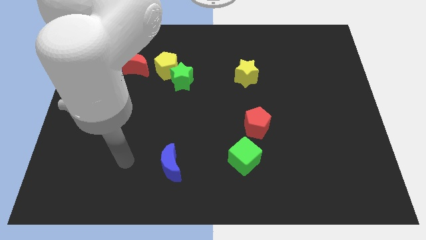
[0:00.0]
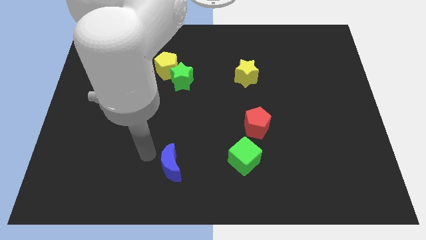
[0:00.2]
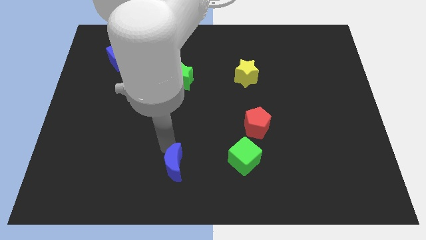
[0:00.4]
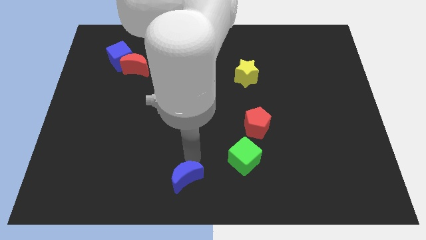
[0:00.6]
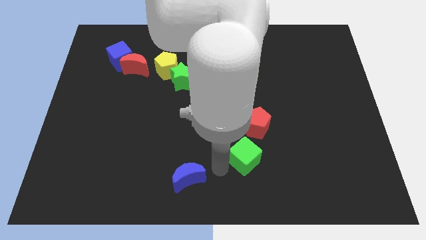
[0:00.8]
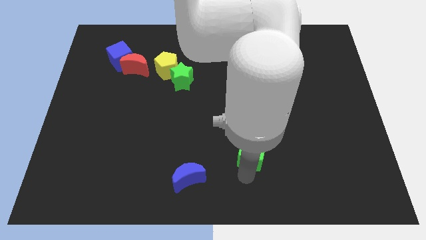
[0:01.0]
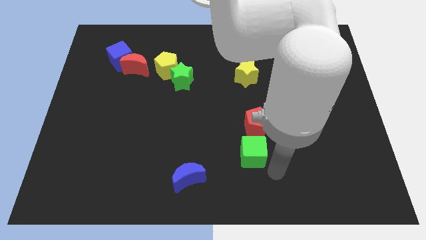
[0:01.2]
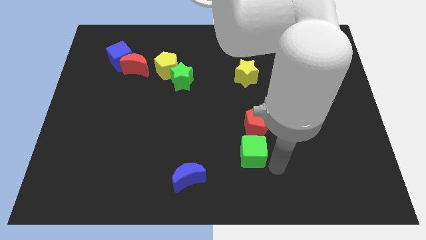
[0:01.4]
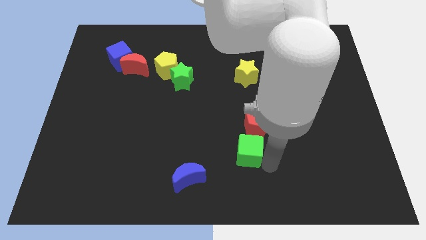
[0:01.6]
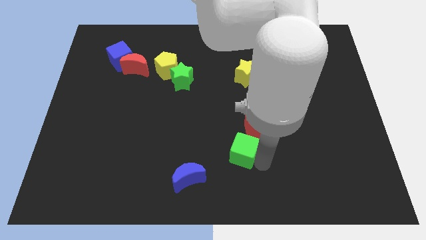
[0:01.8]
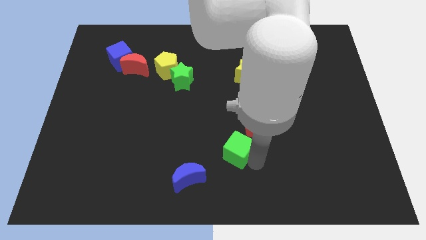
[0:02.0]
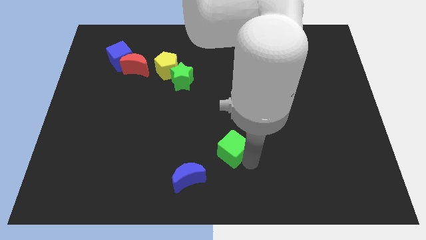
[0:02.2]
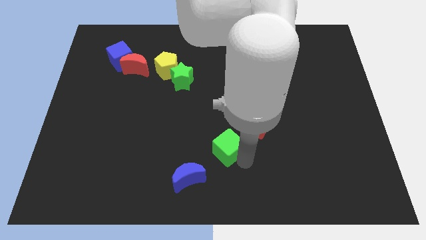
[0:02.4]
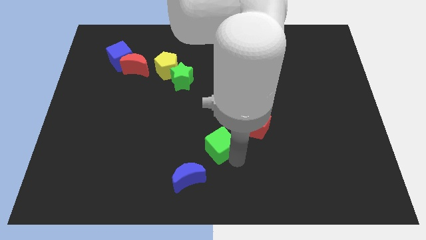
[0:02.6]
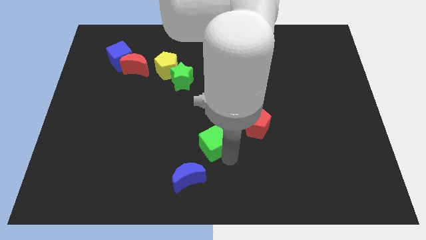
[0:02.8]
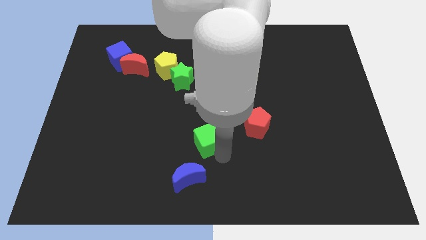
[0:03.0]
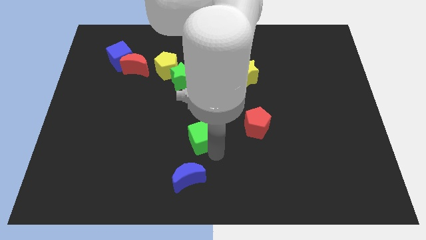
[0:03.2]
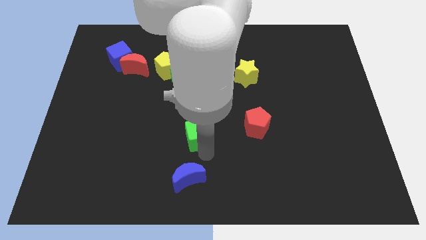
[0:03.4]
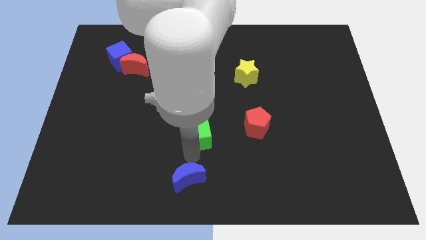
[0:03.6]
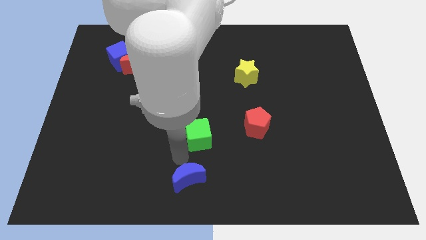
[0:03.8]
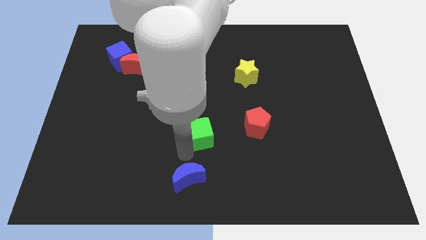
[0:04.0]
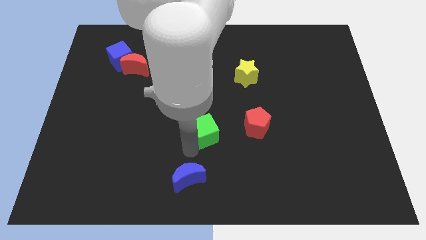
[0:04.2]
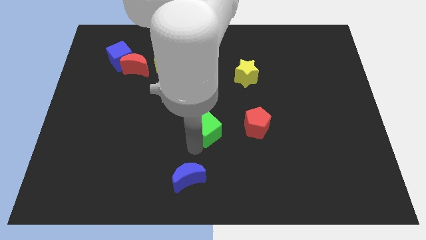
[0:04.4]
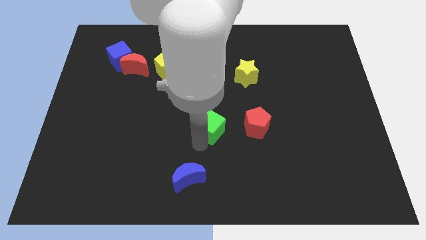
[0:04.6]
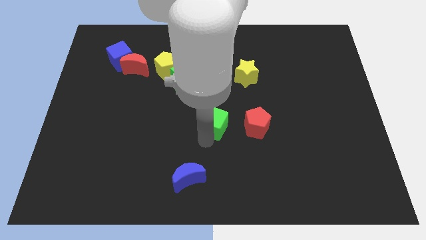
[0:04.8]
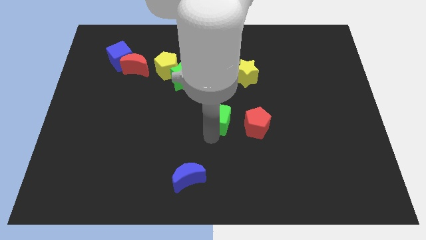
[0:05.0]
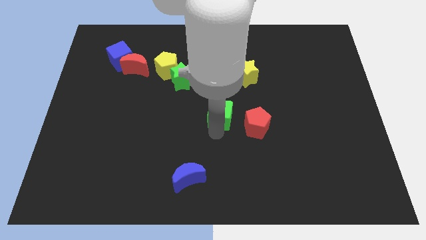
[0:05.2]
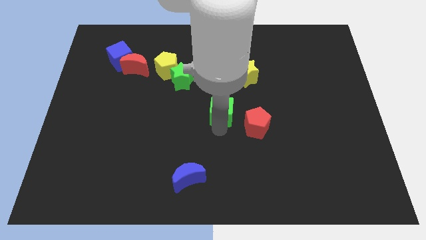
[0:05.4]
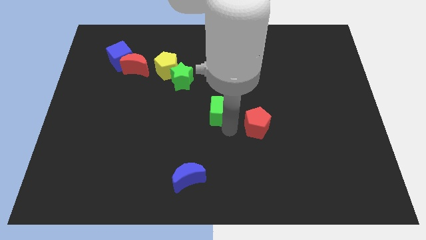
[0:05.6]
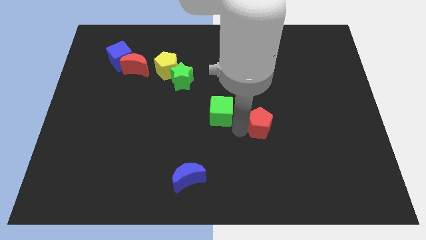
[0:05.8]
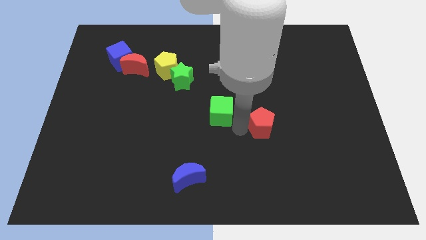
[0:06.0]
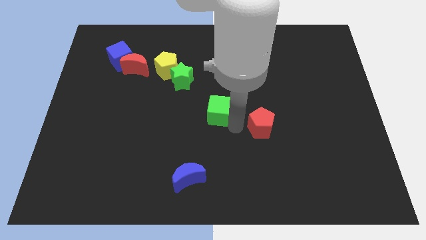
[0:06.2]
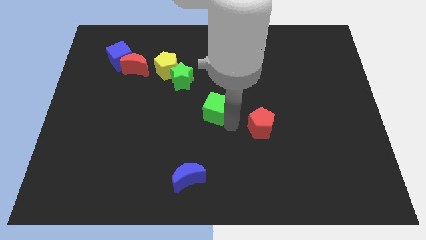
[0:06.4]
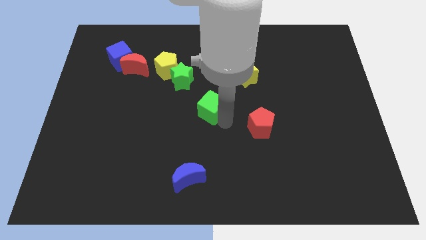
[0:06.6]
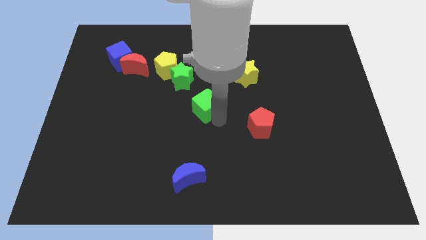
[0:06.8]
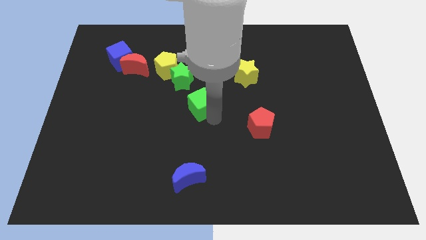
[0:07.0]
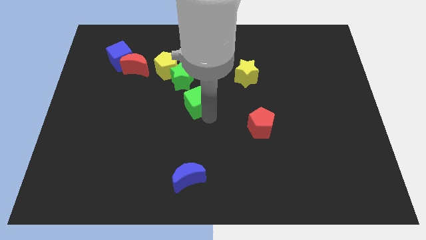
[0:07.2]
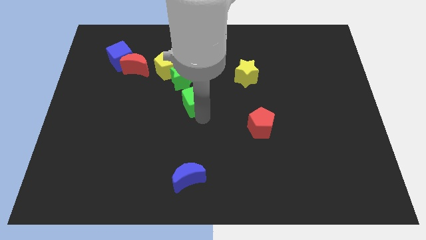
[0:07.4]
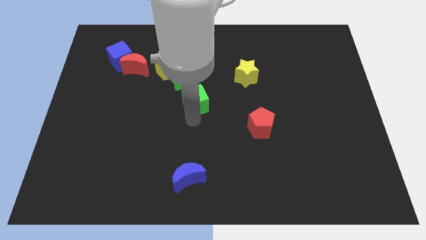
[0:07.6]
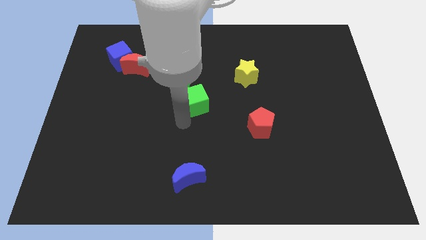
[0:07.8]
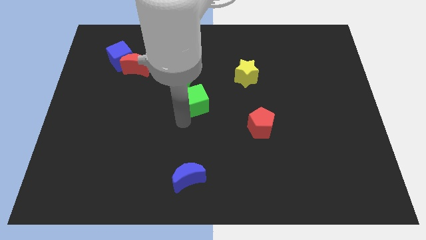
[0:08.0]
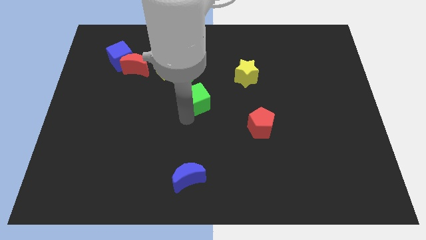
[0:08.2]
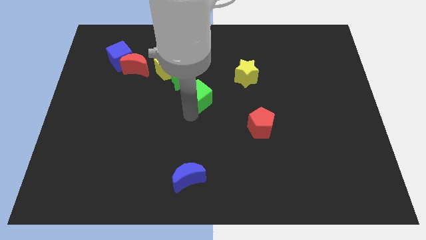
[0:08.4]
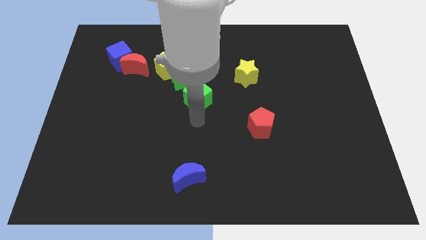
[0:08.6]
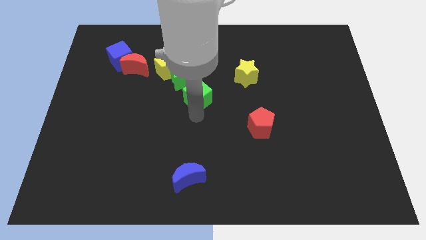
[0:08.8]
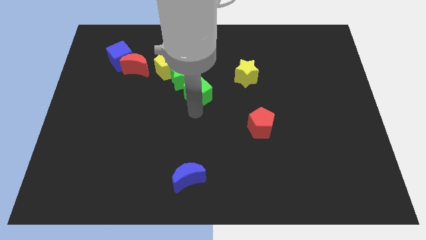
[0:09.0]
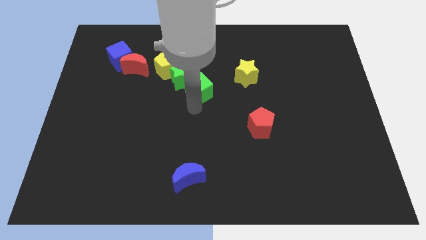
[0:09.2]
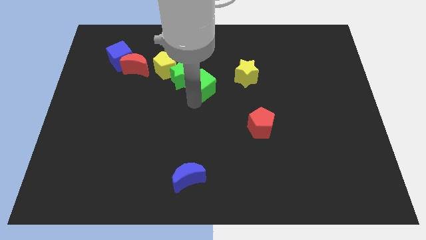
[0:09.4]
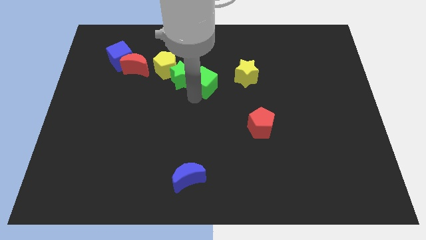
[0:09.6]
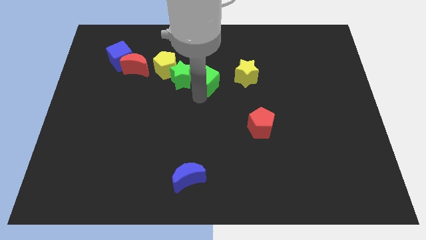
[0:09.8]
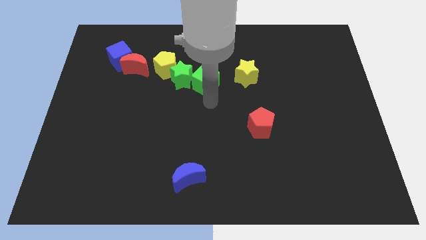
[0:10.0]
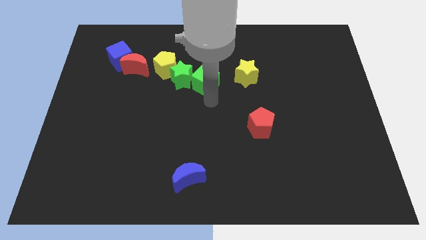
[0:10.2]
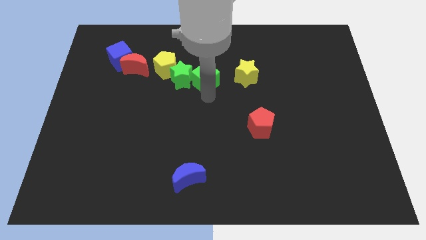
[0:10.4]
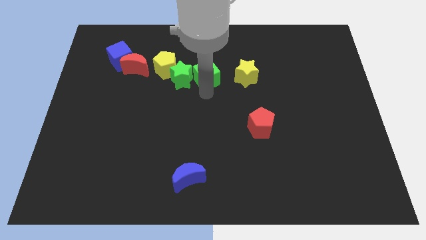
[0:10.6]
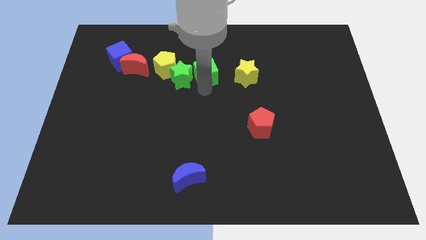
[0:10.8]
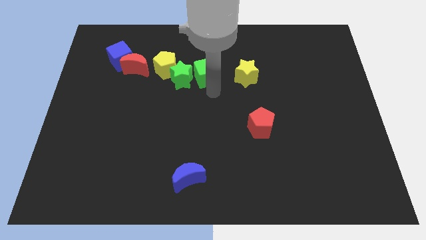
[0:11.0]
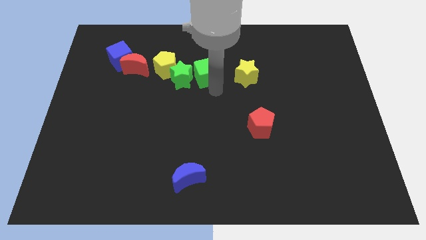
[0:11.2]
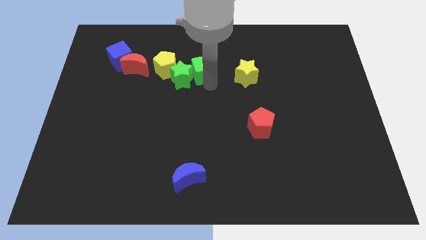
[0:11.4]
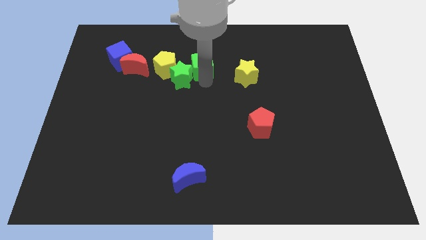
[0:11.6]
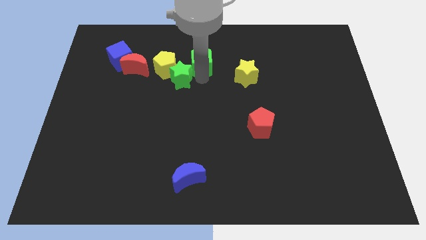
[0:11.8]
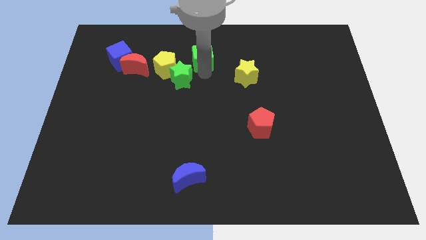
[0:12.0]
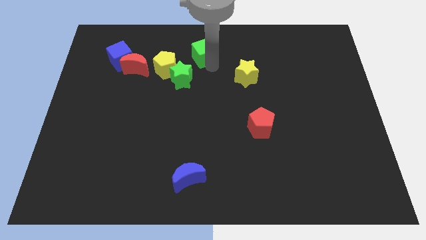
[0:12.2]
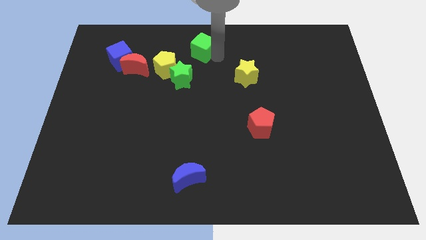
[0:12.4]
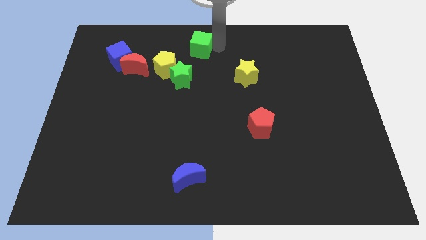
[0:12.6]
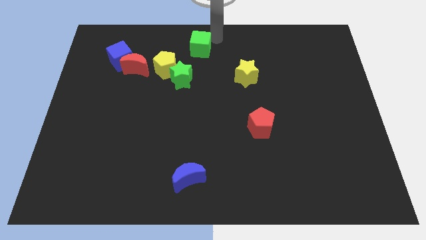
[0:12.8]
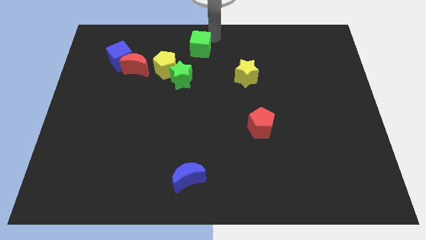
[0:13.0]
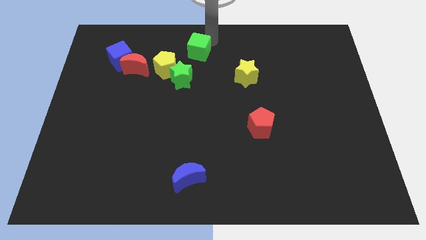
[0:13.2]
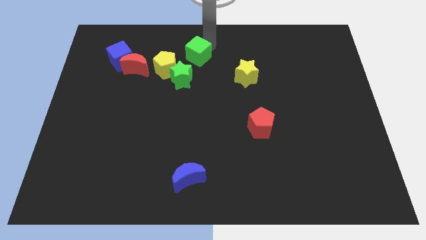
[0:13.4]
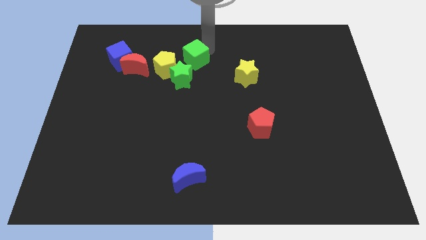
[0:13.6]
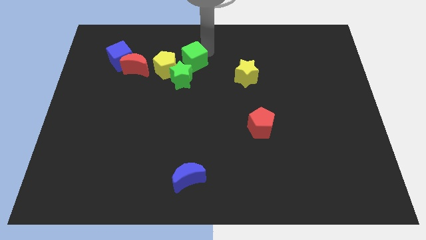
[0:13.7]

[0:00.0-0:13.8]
put the green cube to the right side of the red moon

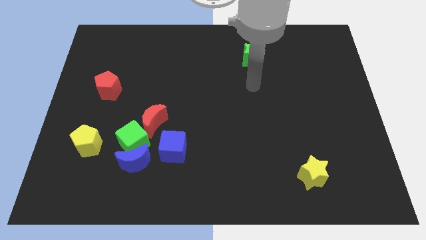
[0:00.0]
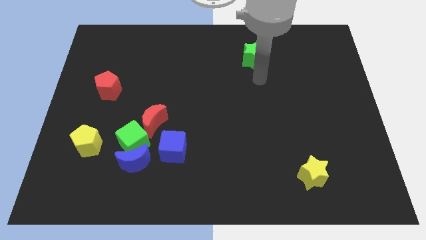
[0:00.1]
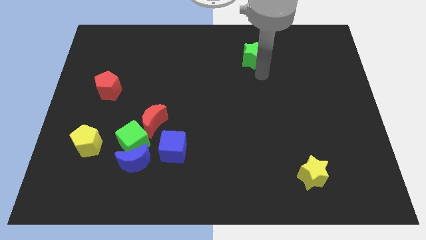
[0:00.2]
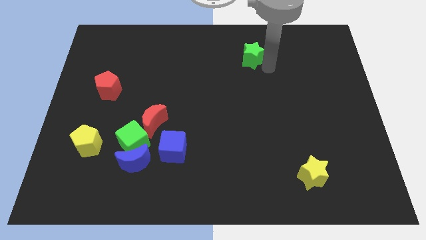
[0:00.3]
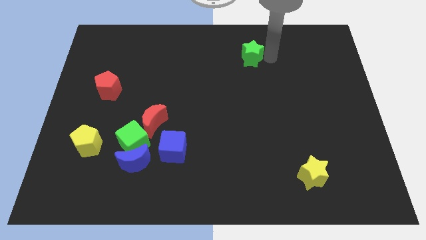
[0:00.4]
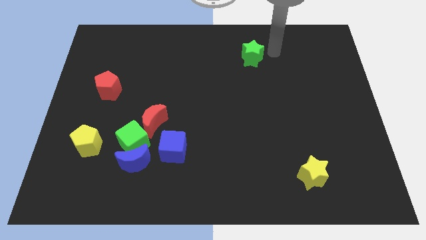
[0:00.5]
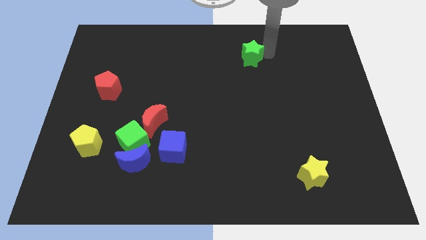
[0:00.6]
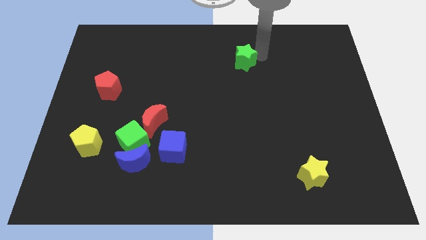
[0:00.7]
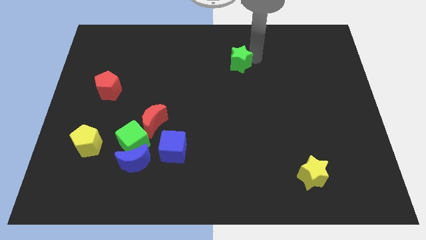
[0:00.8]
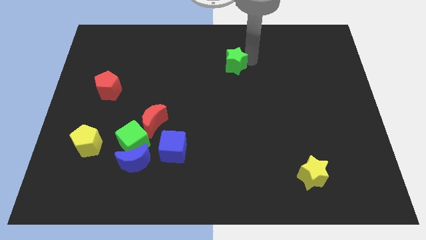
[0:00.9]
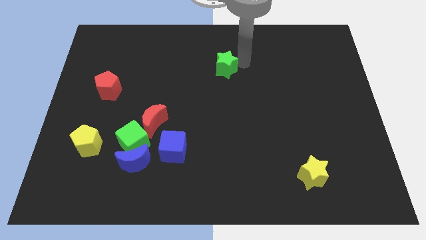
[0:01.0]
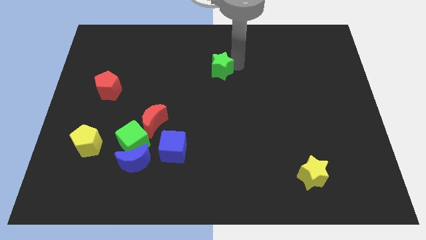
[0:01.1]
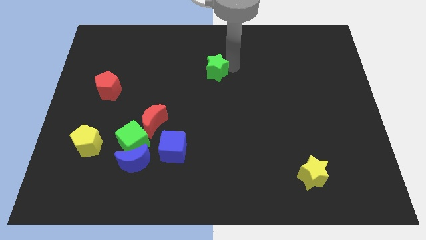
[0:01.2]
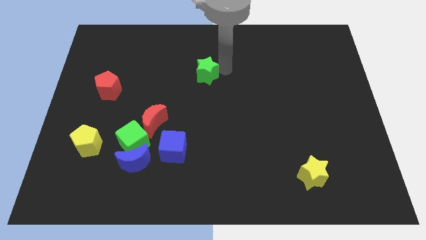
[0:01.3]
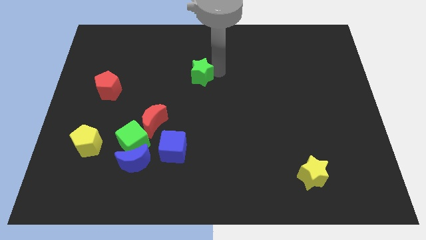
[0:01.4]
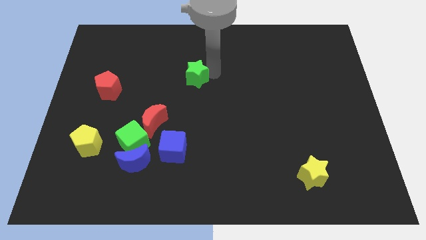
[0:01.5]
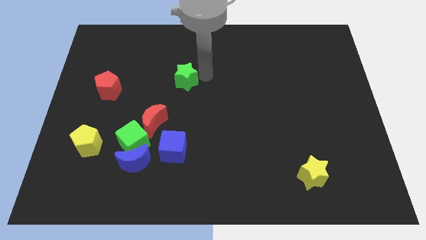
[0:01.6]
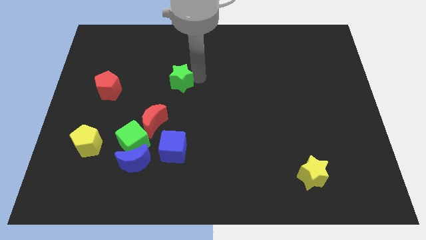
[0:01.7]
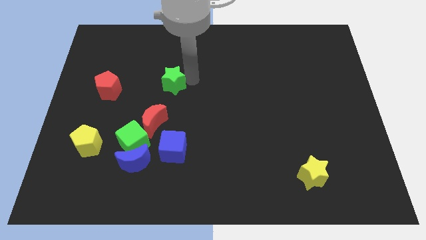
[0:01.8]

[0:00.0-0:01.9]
slide the green star to the top of the red moon
